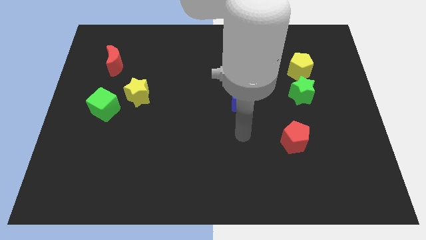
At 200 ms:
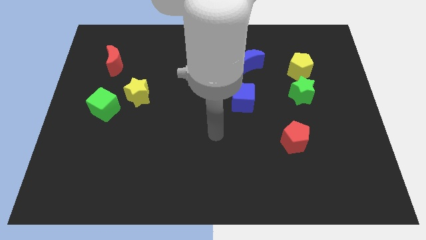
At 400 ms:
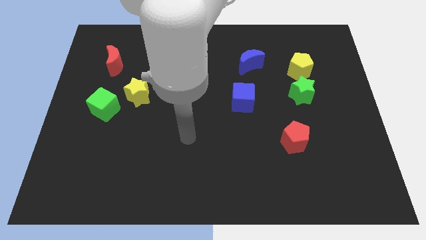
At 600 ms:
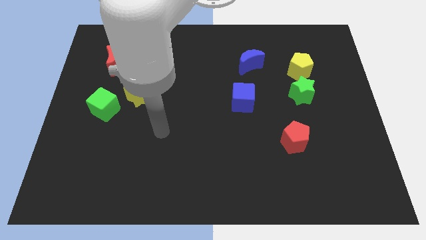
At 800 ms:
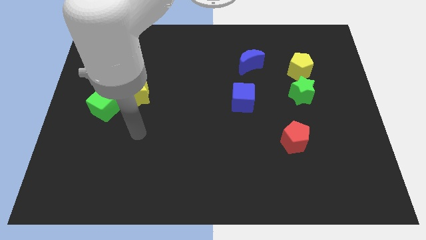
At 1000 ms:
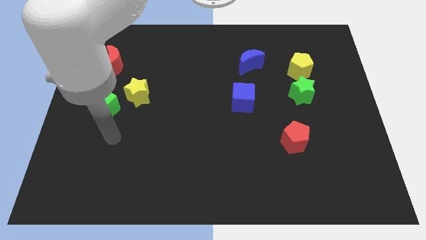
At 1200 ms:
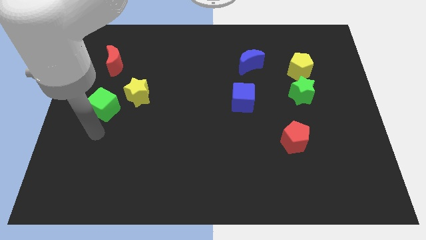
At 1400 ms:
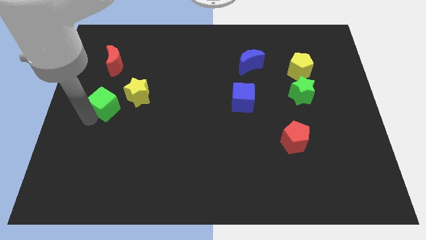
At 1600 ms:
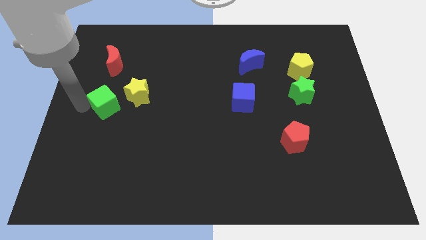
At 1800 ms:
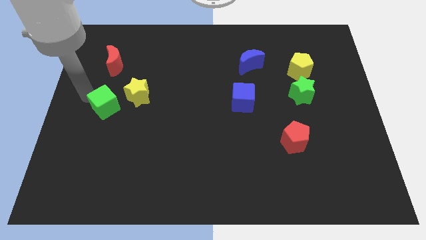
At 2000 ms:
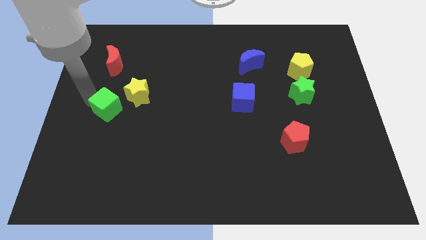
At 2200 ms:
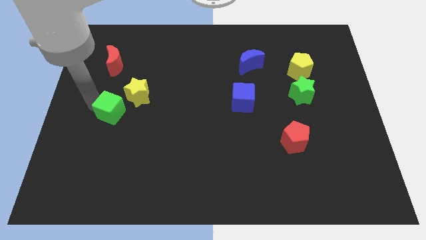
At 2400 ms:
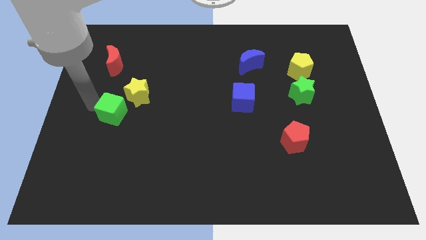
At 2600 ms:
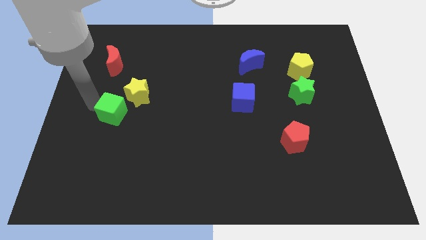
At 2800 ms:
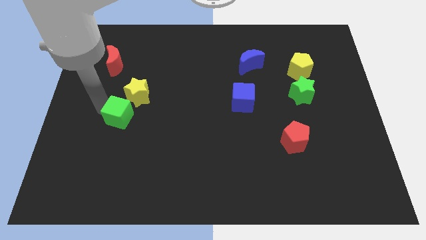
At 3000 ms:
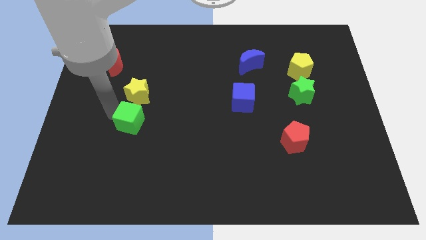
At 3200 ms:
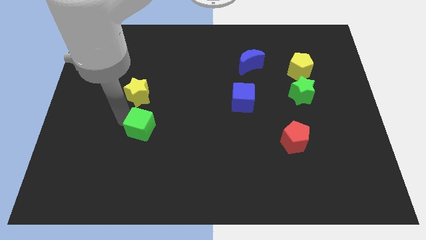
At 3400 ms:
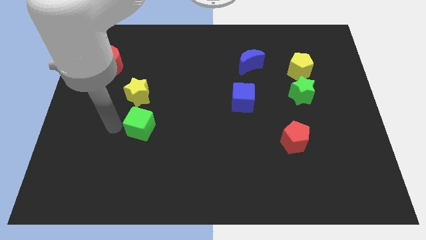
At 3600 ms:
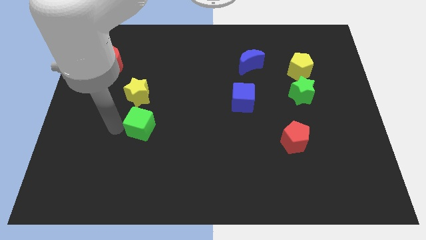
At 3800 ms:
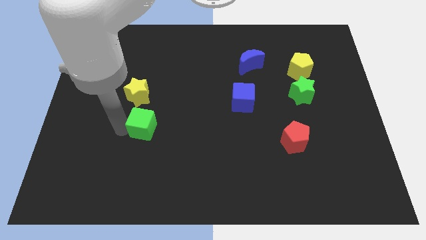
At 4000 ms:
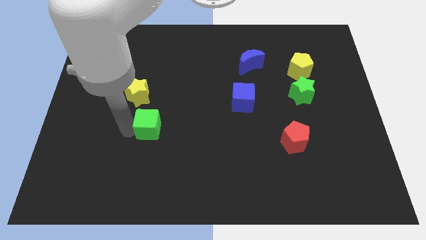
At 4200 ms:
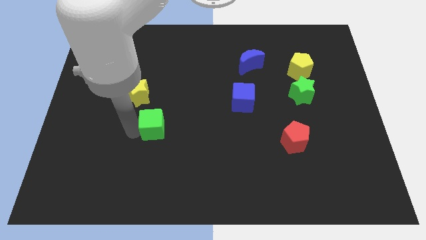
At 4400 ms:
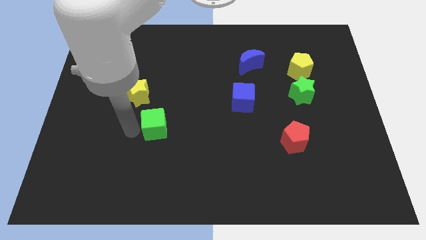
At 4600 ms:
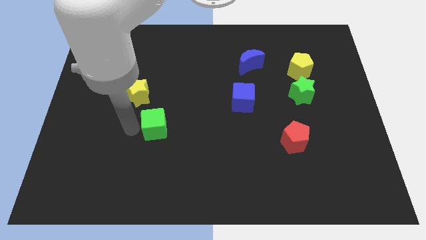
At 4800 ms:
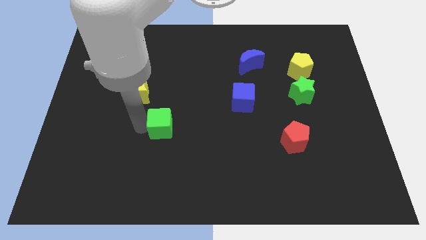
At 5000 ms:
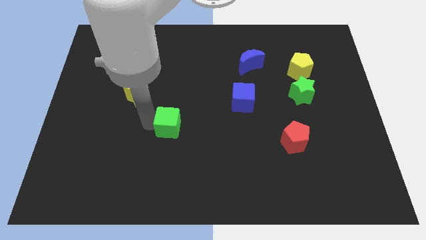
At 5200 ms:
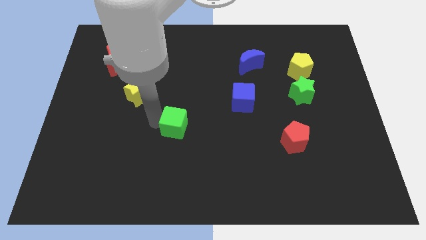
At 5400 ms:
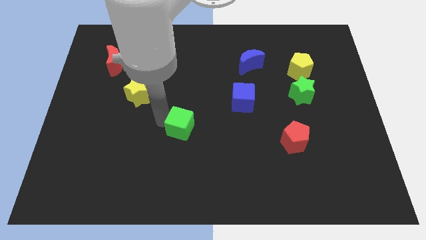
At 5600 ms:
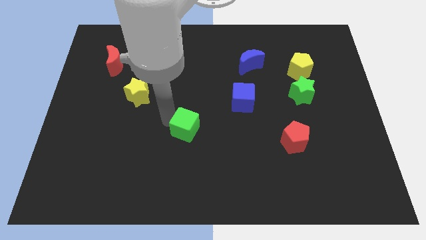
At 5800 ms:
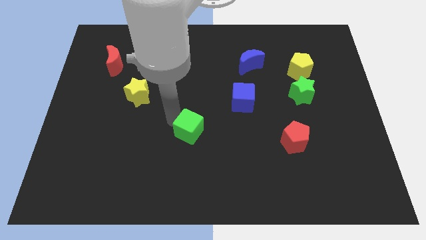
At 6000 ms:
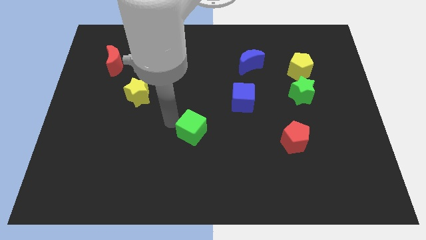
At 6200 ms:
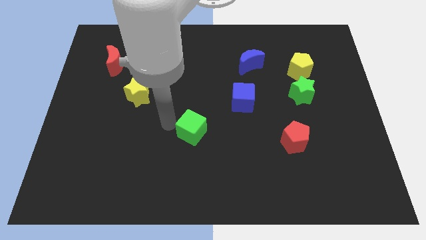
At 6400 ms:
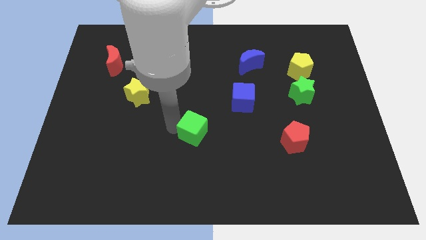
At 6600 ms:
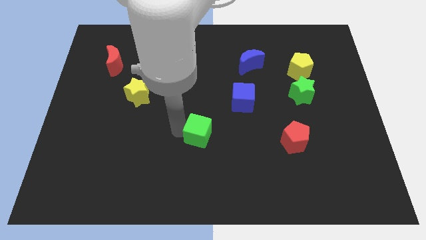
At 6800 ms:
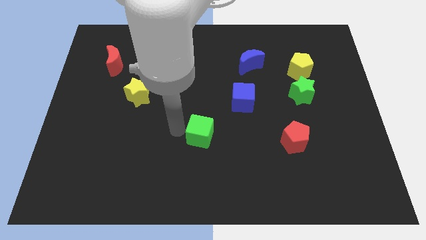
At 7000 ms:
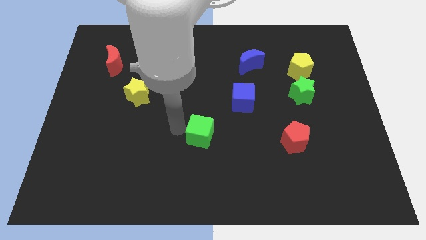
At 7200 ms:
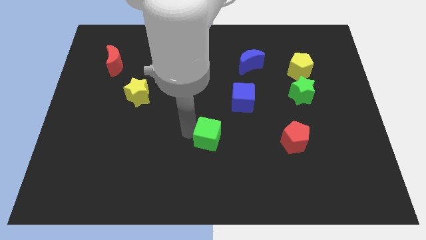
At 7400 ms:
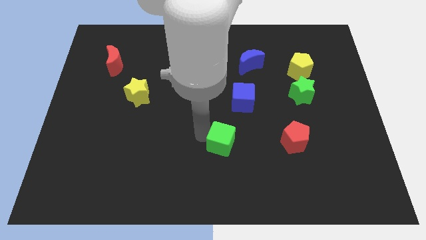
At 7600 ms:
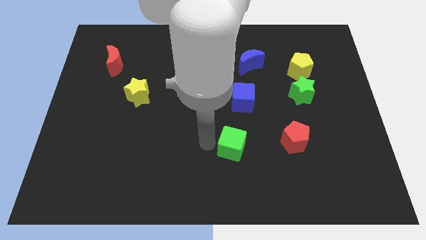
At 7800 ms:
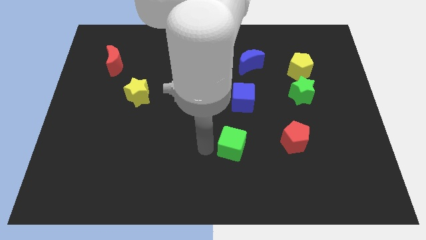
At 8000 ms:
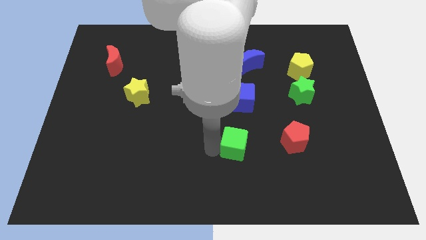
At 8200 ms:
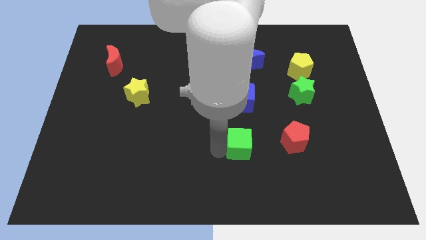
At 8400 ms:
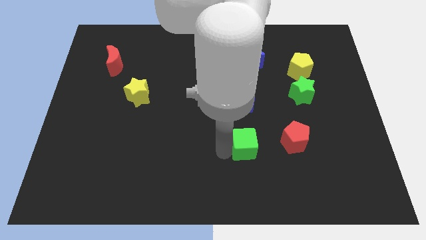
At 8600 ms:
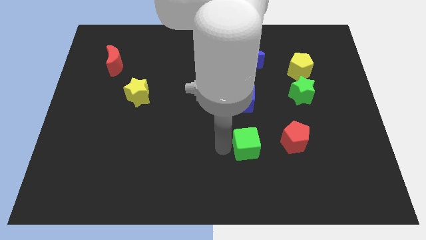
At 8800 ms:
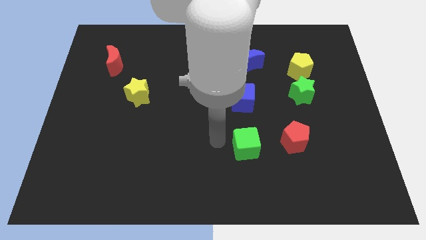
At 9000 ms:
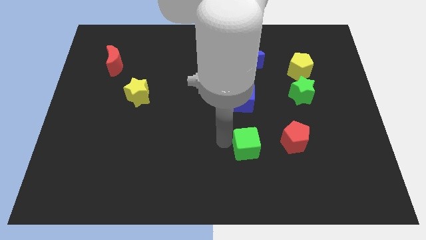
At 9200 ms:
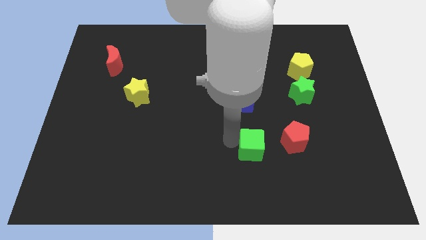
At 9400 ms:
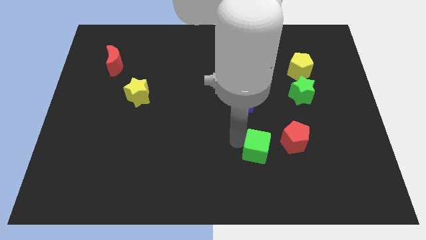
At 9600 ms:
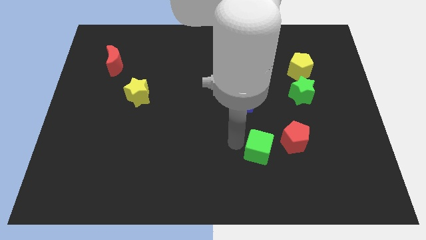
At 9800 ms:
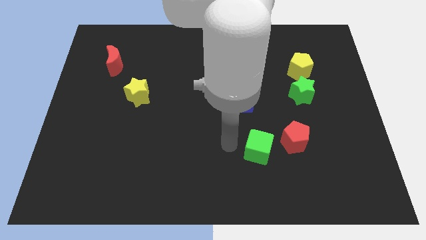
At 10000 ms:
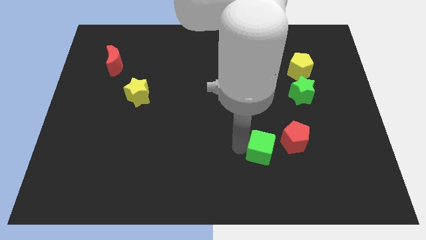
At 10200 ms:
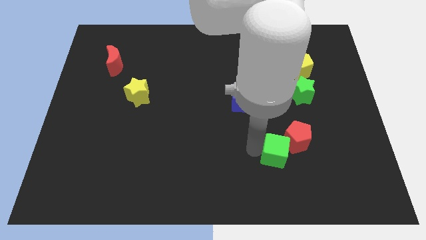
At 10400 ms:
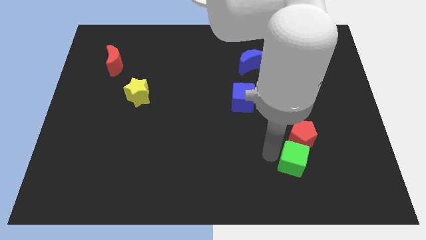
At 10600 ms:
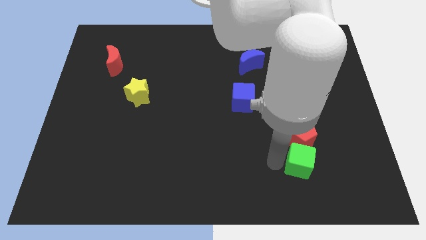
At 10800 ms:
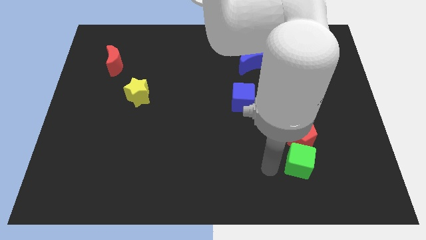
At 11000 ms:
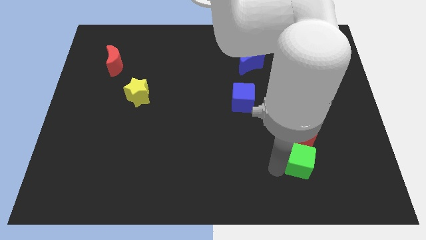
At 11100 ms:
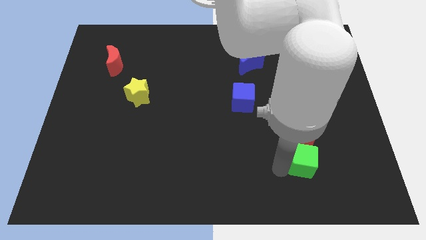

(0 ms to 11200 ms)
put the green cube to the bottom right of the red pentagon

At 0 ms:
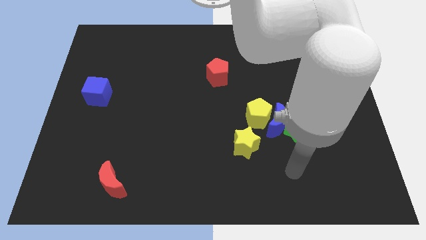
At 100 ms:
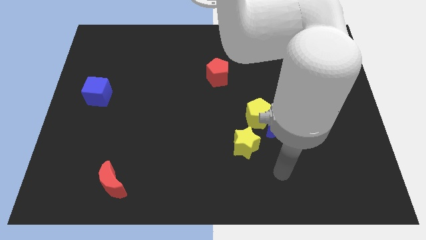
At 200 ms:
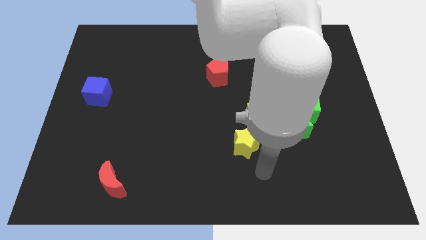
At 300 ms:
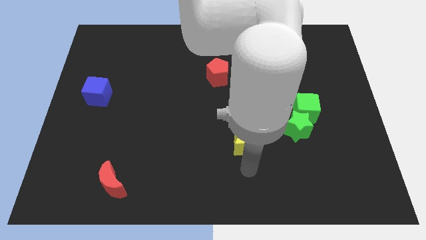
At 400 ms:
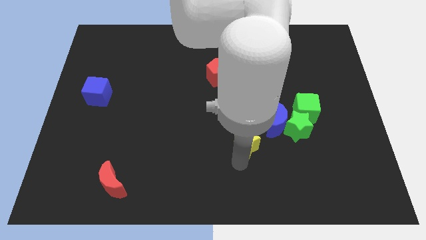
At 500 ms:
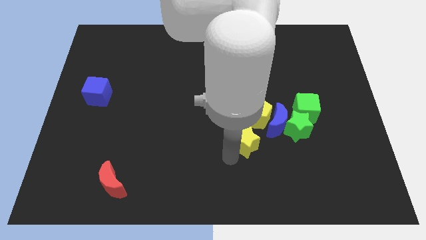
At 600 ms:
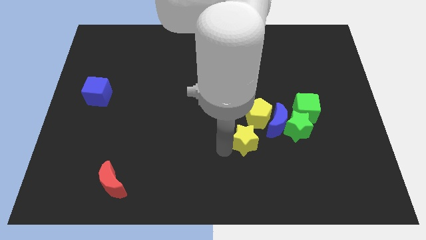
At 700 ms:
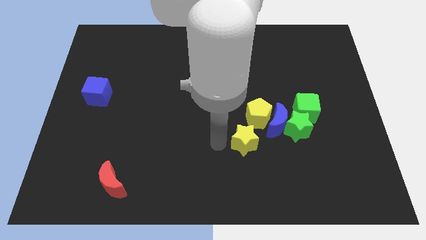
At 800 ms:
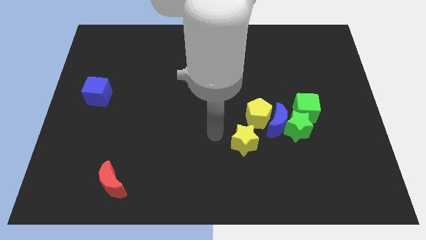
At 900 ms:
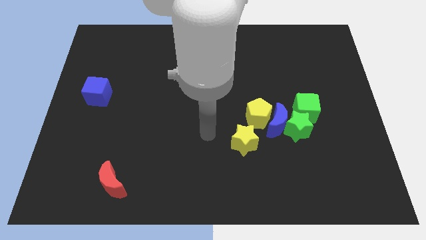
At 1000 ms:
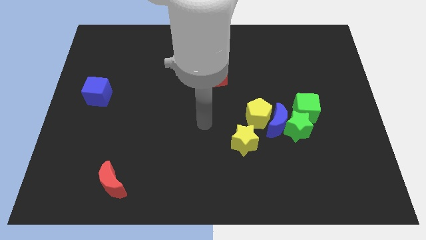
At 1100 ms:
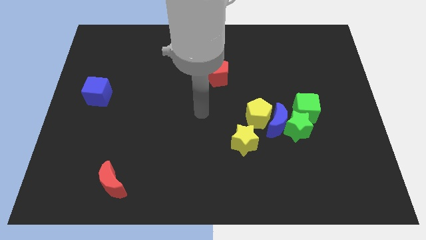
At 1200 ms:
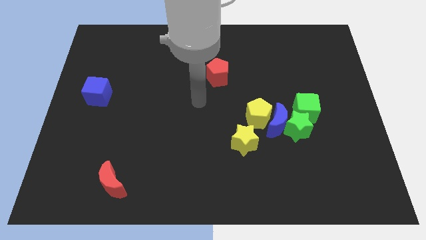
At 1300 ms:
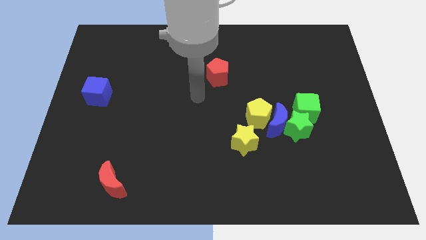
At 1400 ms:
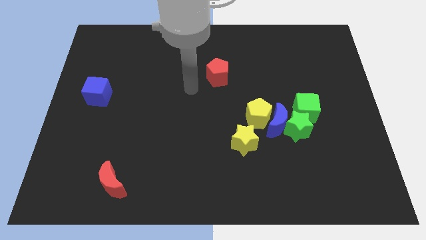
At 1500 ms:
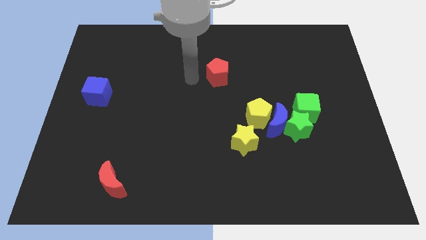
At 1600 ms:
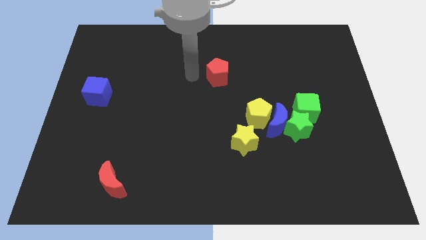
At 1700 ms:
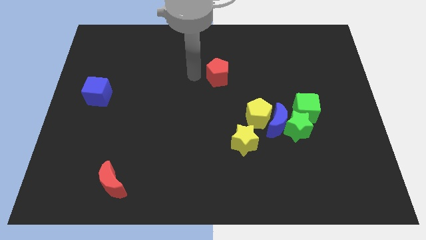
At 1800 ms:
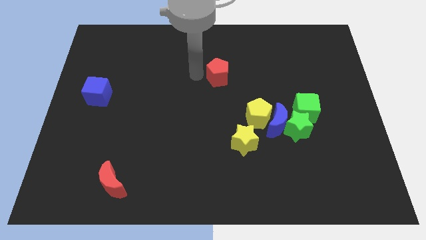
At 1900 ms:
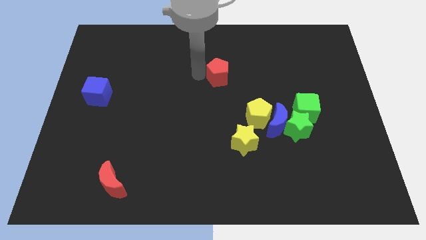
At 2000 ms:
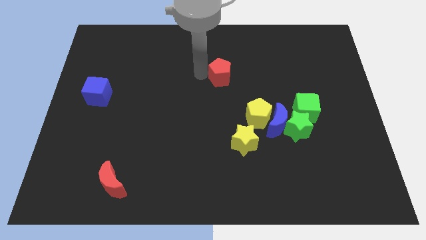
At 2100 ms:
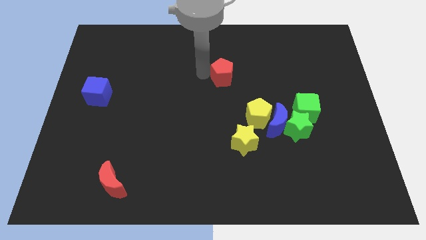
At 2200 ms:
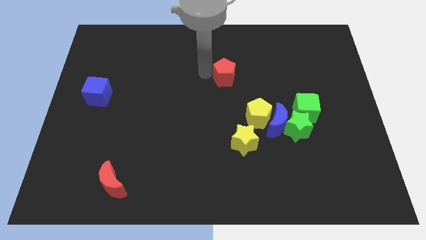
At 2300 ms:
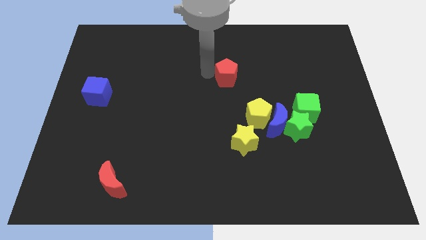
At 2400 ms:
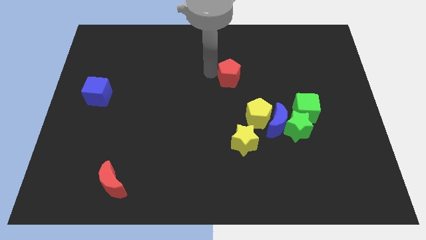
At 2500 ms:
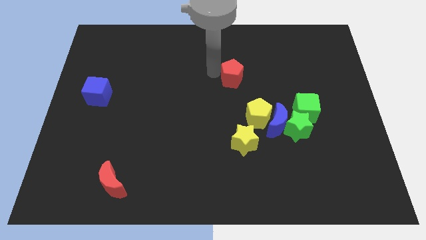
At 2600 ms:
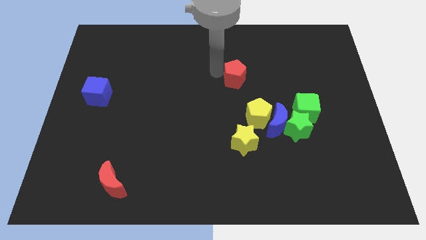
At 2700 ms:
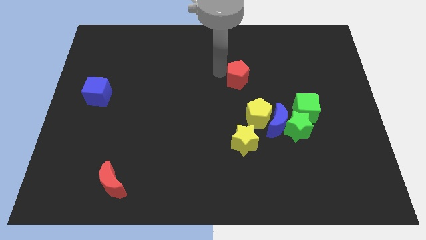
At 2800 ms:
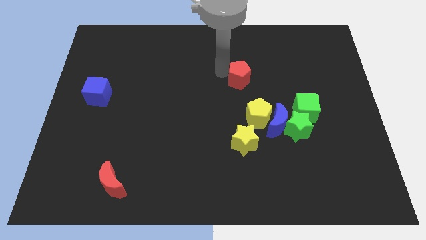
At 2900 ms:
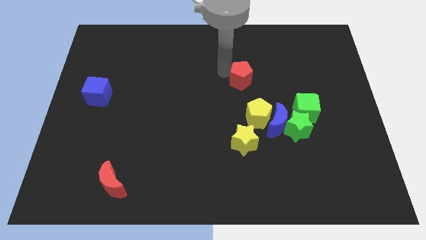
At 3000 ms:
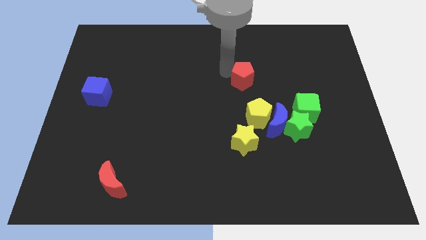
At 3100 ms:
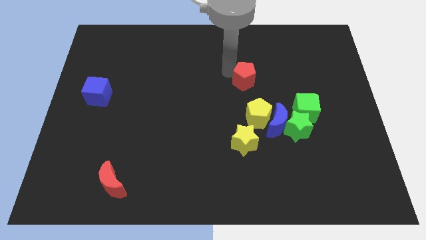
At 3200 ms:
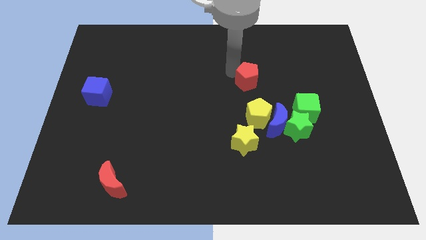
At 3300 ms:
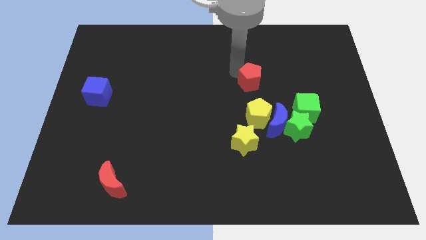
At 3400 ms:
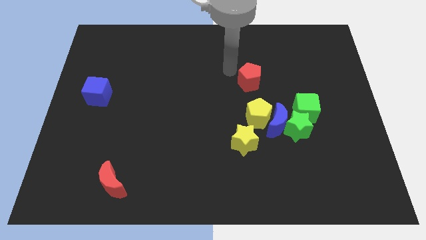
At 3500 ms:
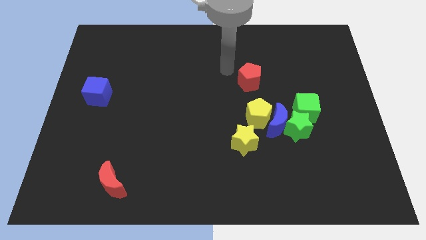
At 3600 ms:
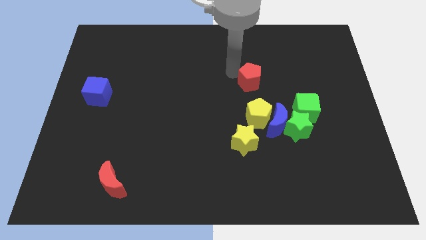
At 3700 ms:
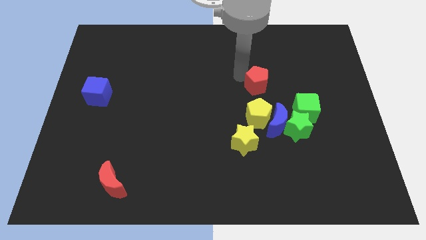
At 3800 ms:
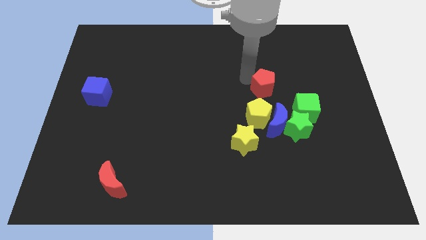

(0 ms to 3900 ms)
put the red pentagon diagonally up and to the left of the green cube
